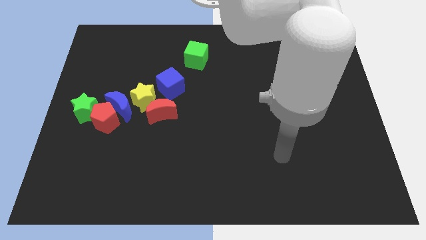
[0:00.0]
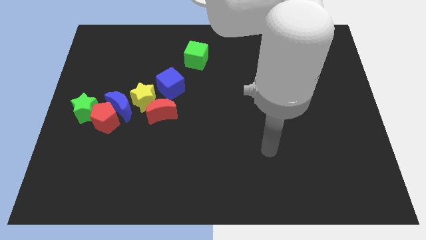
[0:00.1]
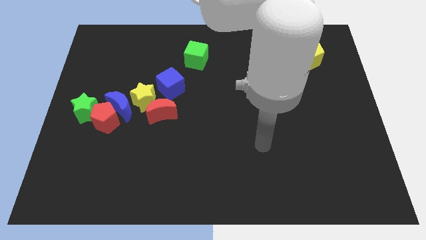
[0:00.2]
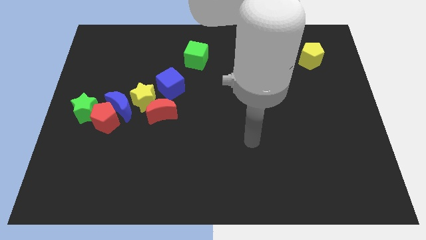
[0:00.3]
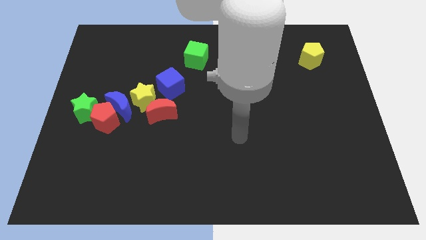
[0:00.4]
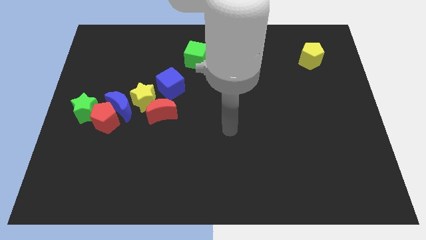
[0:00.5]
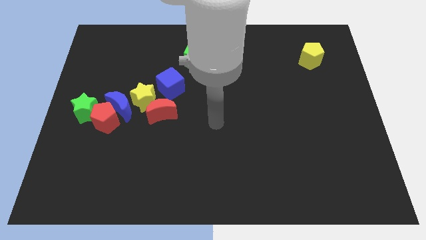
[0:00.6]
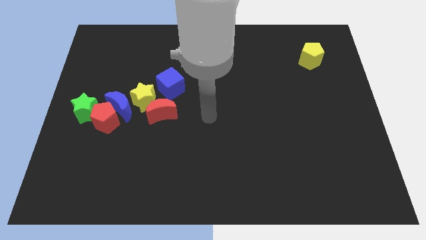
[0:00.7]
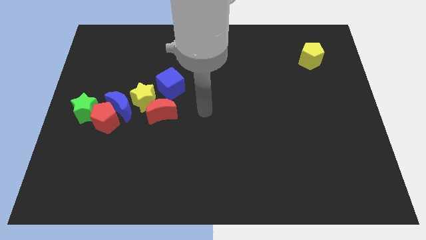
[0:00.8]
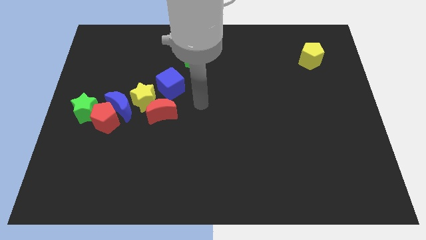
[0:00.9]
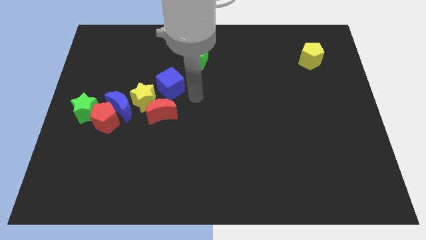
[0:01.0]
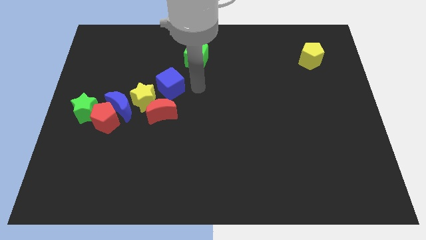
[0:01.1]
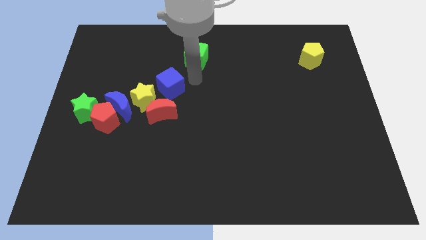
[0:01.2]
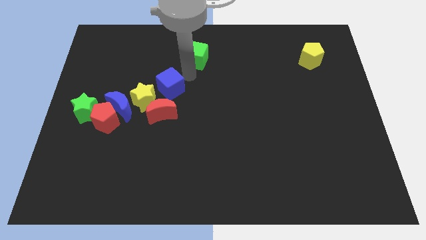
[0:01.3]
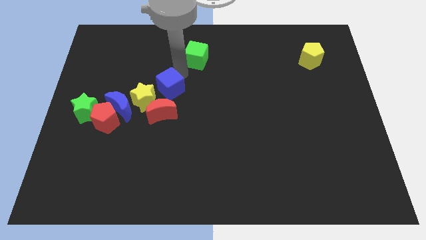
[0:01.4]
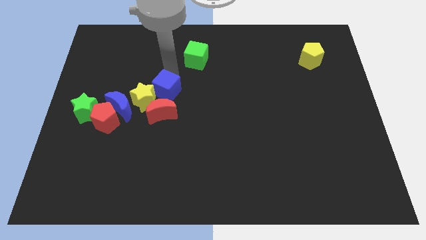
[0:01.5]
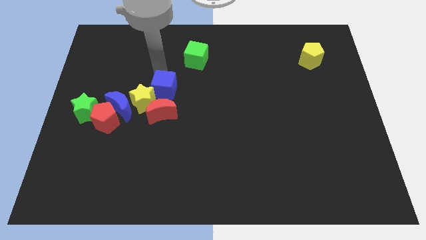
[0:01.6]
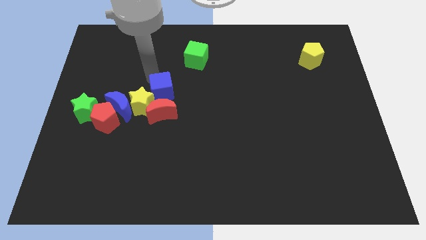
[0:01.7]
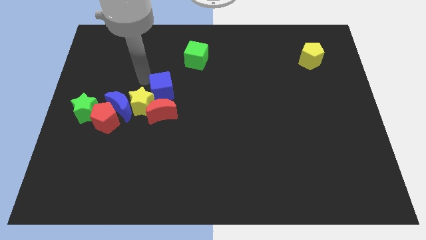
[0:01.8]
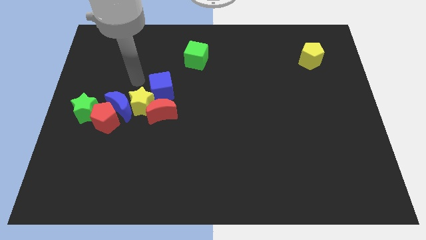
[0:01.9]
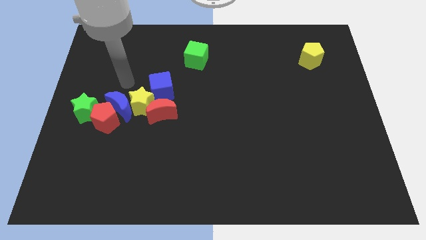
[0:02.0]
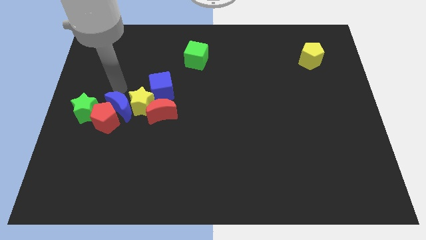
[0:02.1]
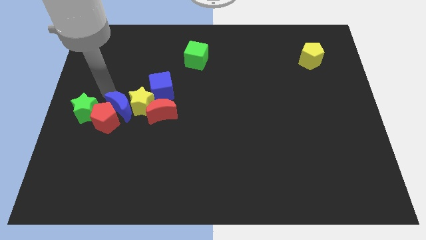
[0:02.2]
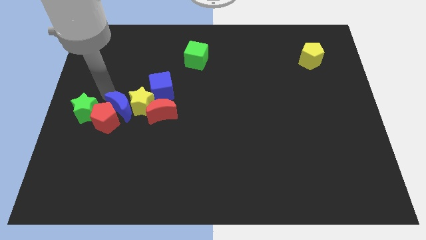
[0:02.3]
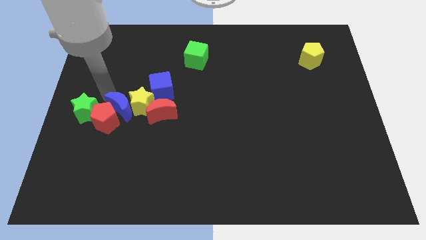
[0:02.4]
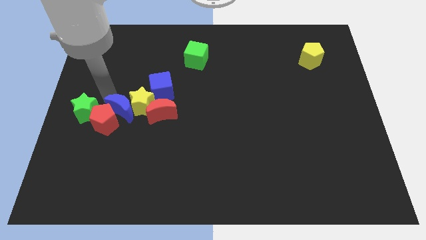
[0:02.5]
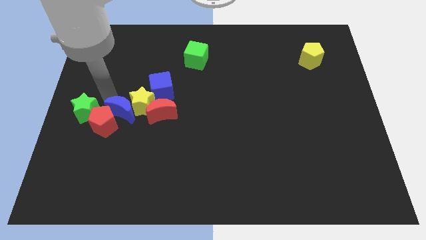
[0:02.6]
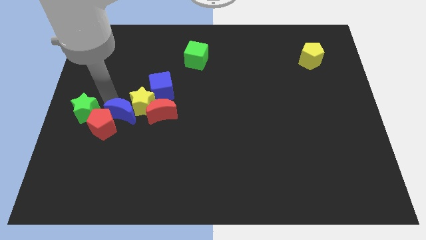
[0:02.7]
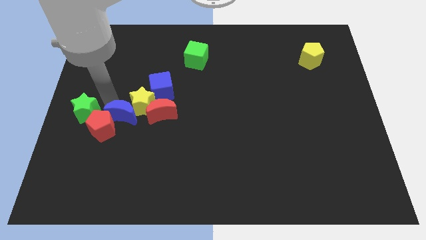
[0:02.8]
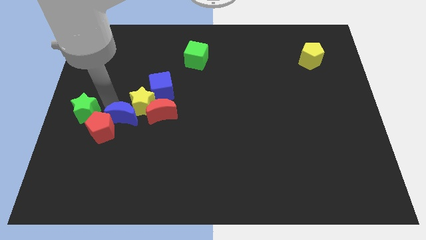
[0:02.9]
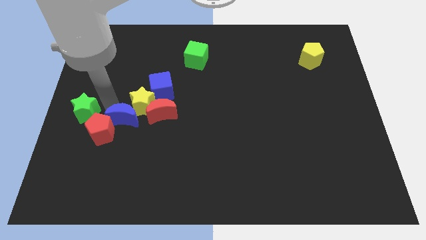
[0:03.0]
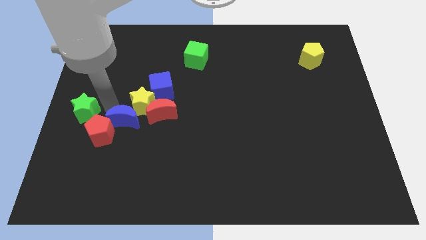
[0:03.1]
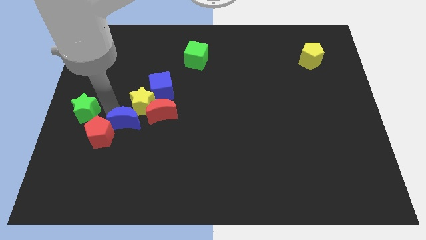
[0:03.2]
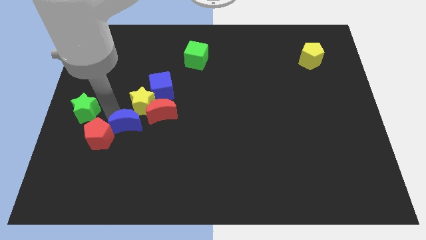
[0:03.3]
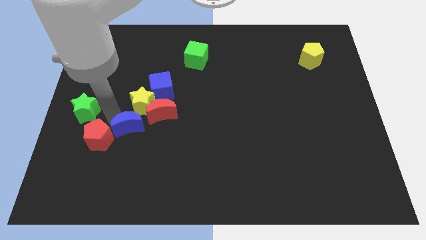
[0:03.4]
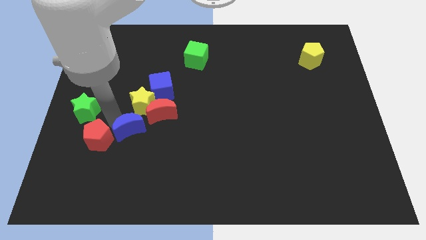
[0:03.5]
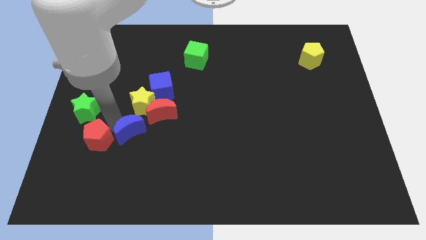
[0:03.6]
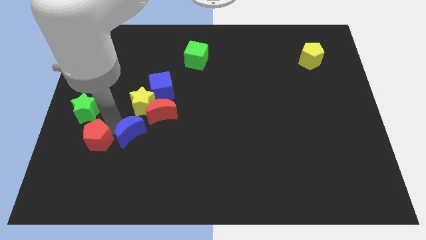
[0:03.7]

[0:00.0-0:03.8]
move the blue moon somewhat down and right

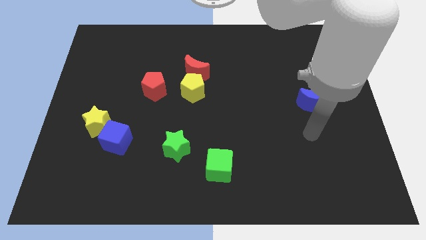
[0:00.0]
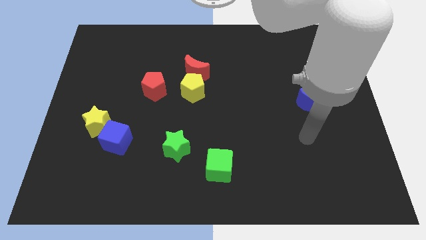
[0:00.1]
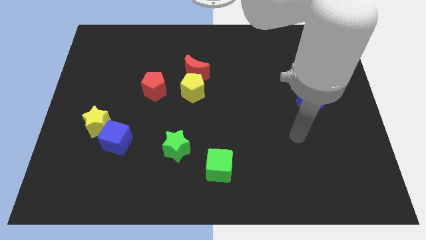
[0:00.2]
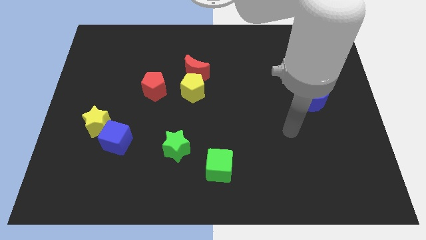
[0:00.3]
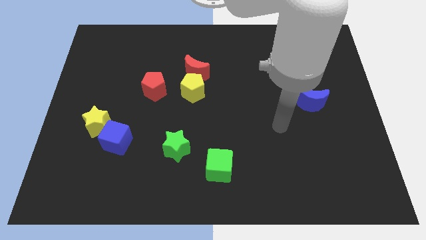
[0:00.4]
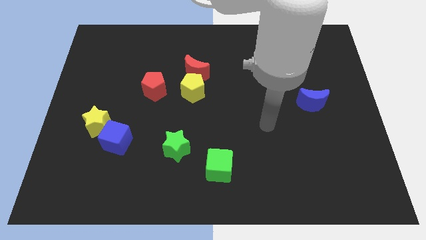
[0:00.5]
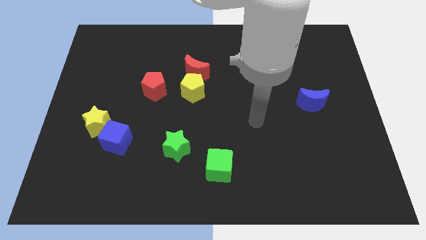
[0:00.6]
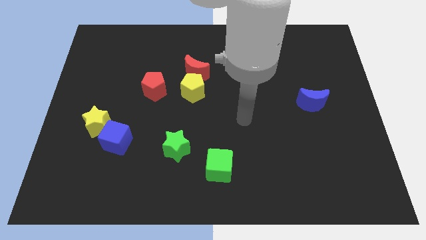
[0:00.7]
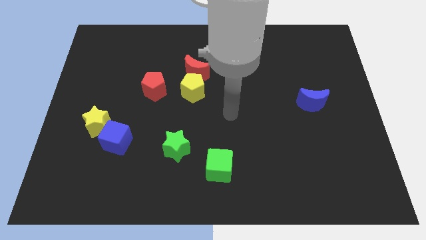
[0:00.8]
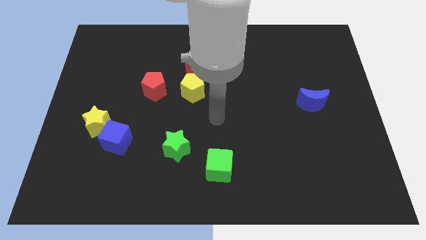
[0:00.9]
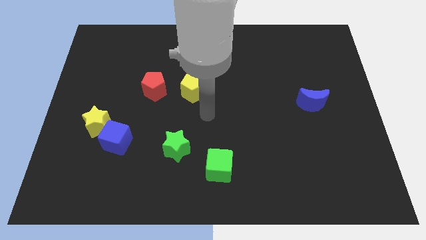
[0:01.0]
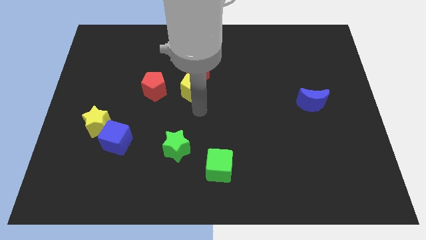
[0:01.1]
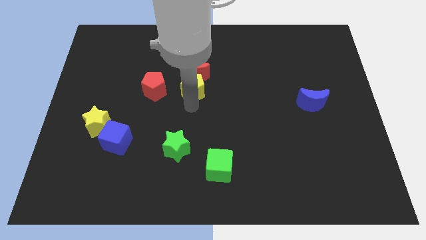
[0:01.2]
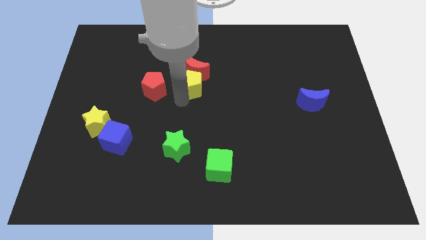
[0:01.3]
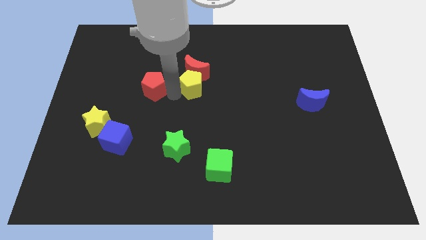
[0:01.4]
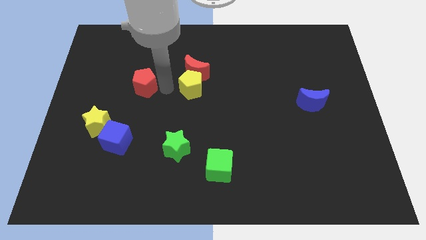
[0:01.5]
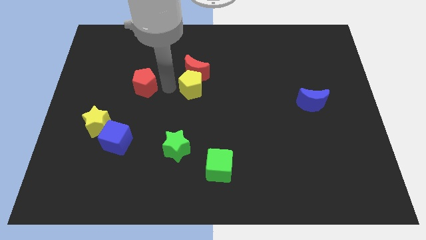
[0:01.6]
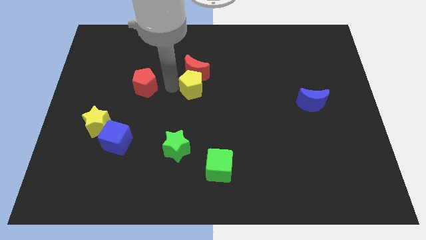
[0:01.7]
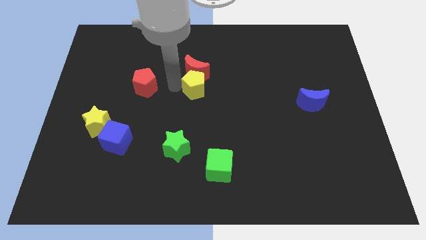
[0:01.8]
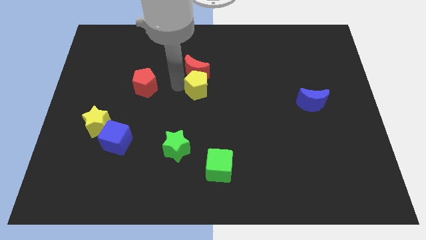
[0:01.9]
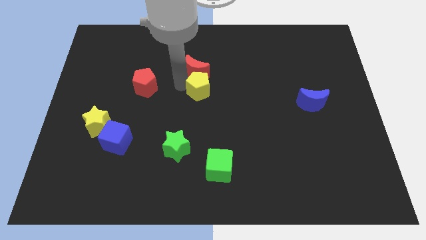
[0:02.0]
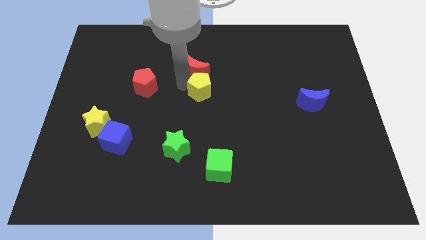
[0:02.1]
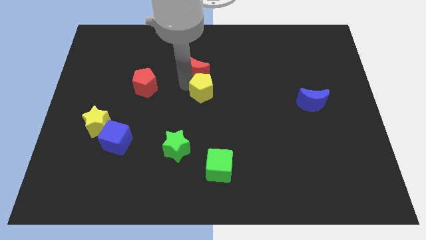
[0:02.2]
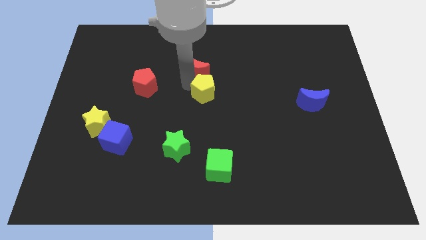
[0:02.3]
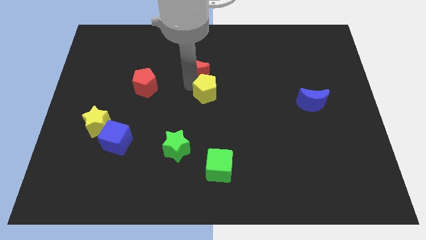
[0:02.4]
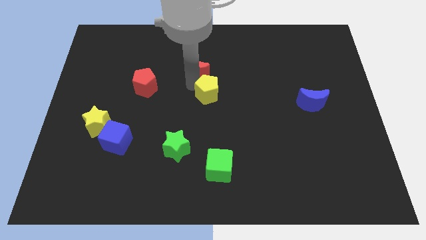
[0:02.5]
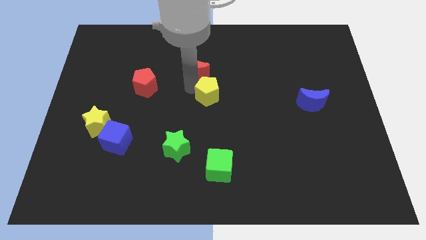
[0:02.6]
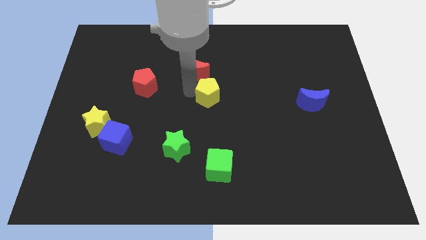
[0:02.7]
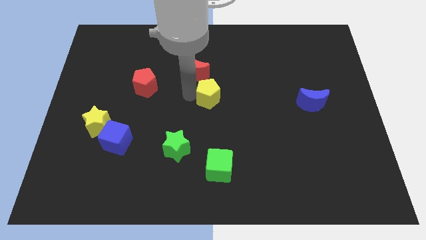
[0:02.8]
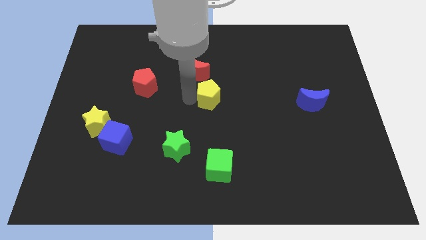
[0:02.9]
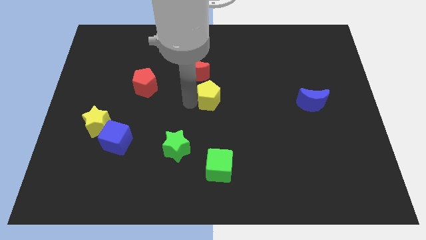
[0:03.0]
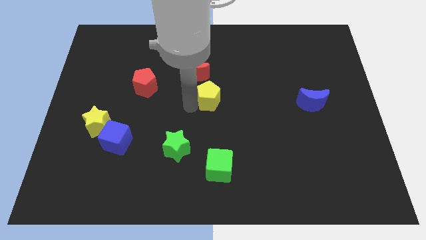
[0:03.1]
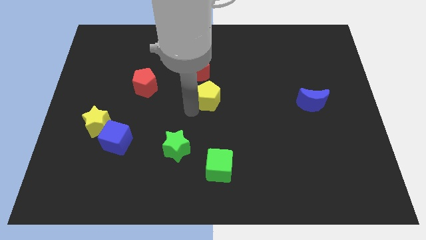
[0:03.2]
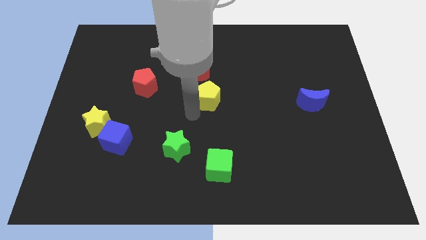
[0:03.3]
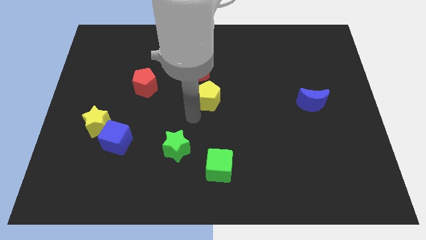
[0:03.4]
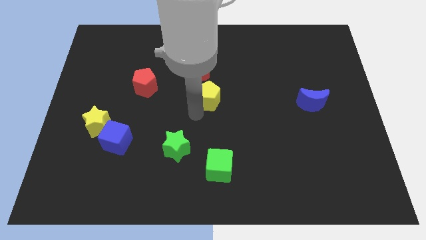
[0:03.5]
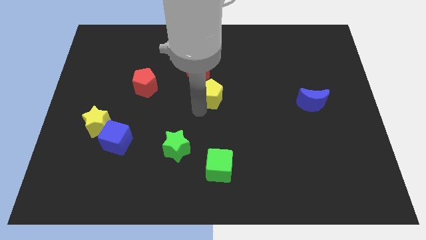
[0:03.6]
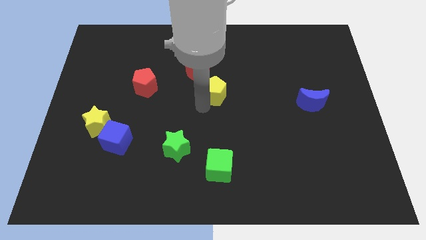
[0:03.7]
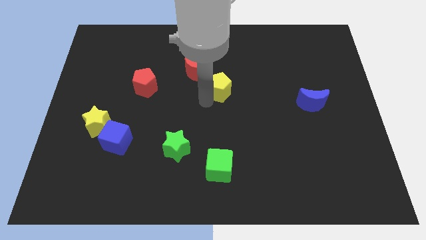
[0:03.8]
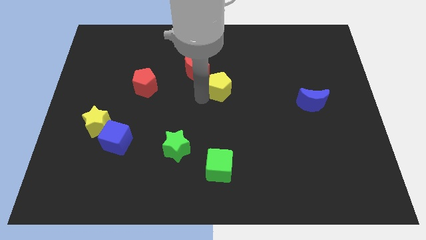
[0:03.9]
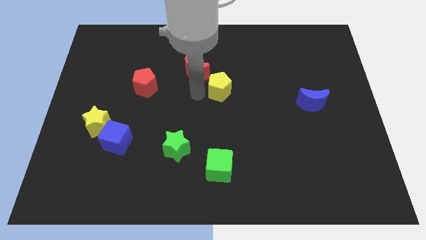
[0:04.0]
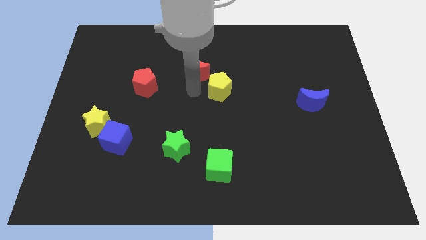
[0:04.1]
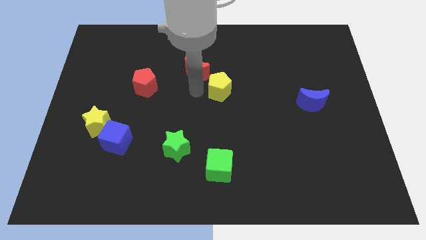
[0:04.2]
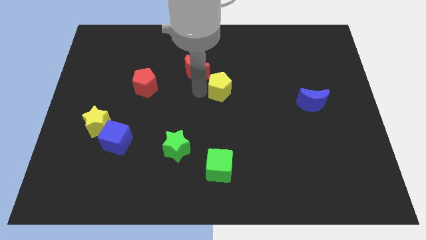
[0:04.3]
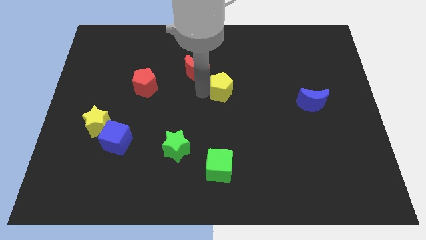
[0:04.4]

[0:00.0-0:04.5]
move the yellow pentagon slightly to the right
